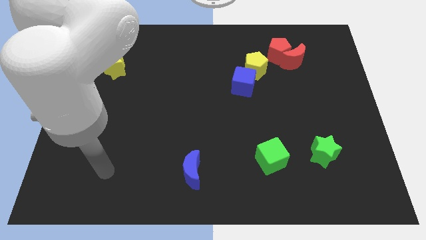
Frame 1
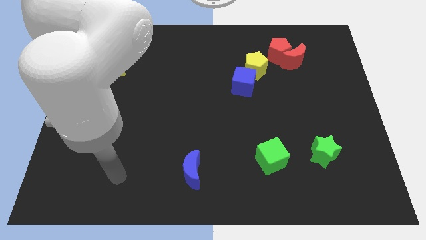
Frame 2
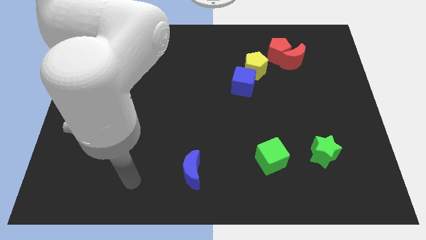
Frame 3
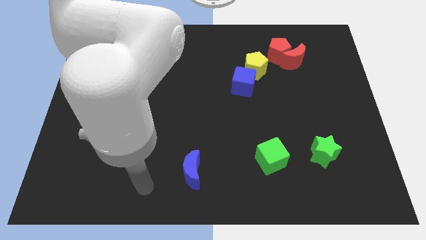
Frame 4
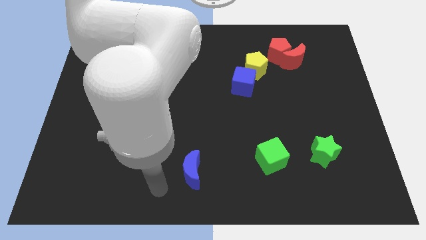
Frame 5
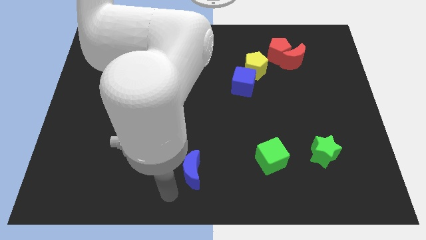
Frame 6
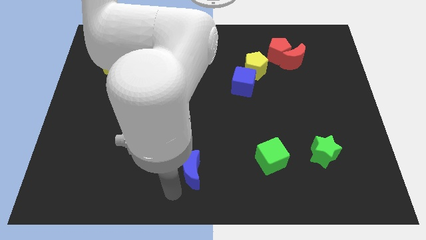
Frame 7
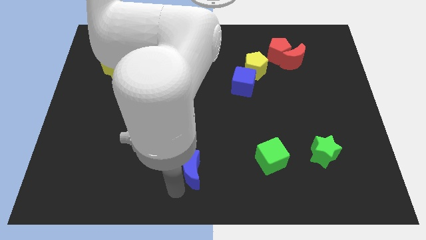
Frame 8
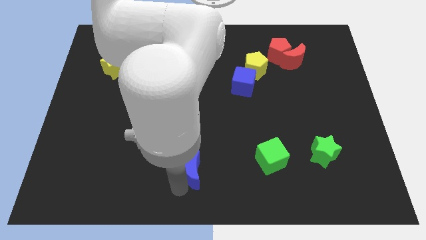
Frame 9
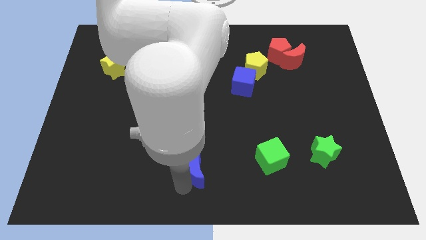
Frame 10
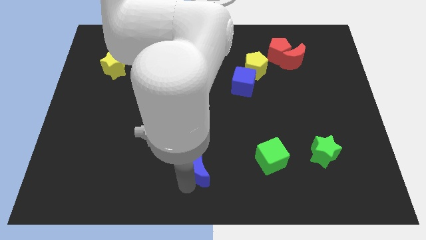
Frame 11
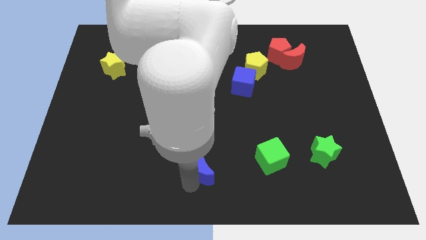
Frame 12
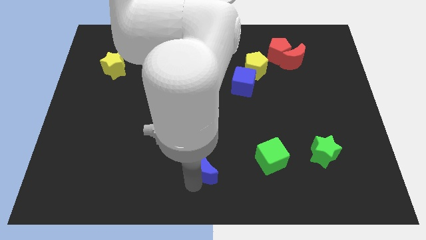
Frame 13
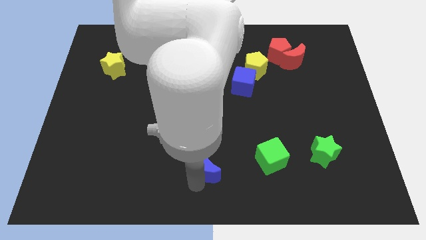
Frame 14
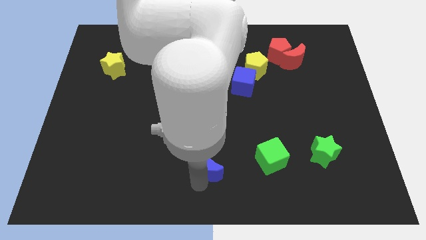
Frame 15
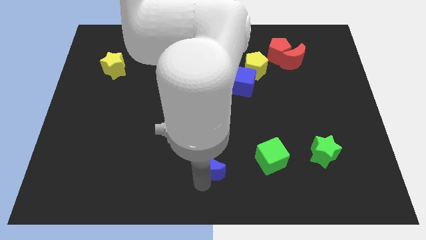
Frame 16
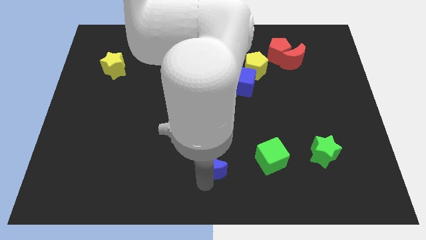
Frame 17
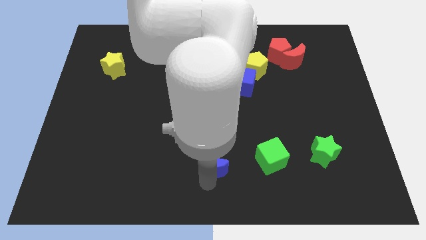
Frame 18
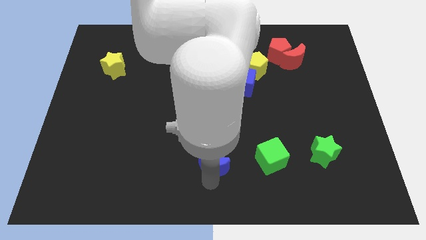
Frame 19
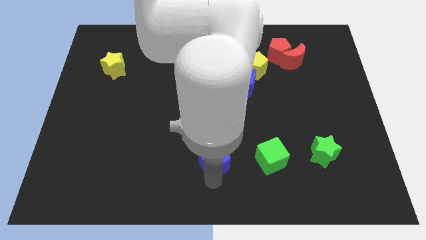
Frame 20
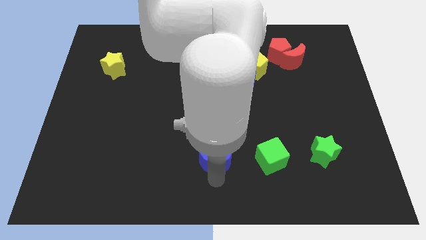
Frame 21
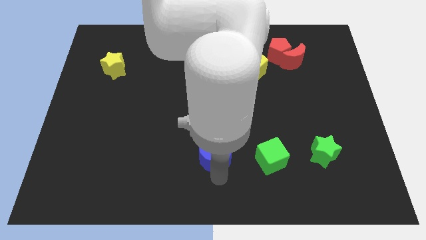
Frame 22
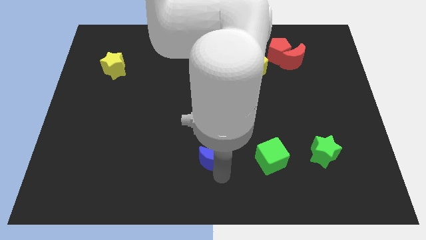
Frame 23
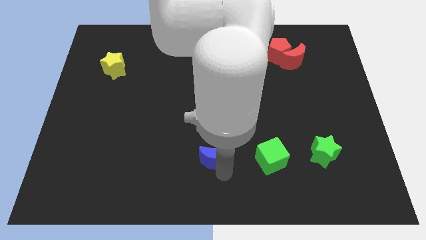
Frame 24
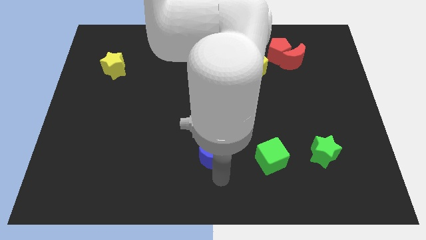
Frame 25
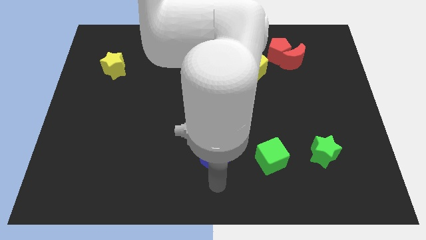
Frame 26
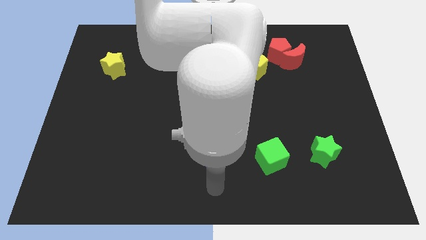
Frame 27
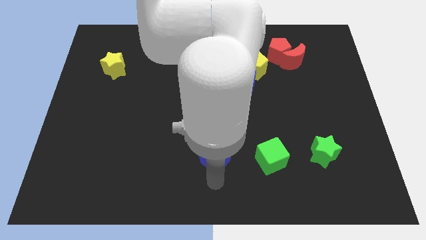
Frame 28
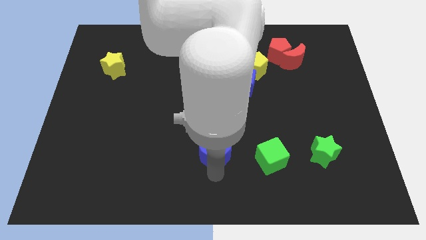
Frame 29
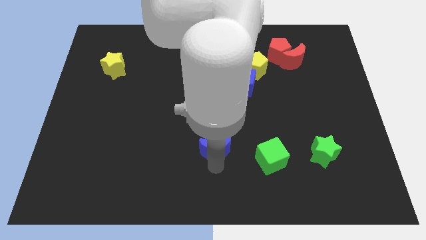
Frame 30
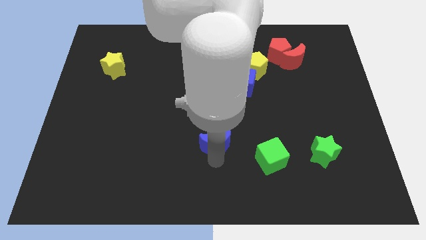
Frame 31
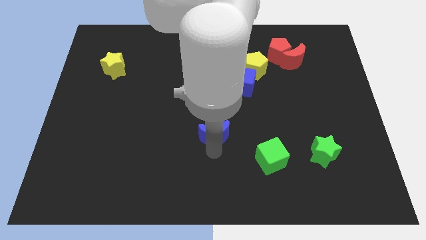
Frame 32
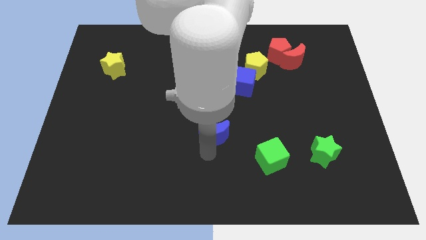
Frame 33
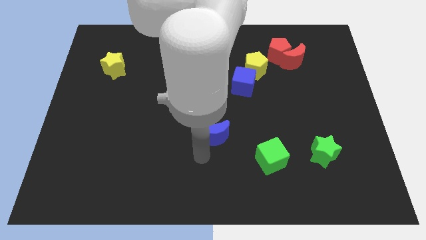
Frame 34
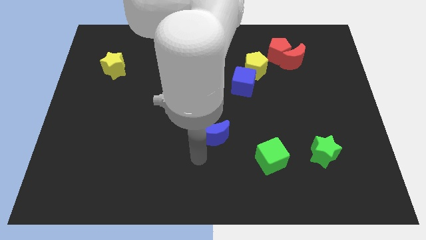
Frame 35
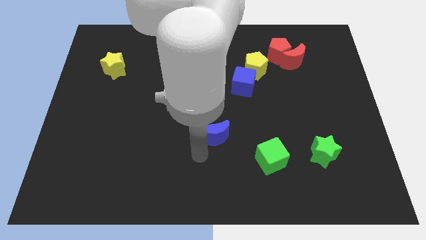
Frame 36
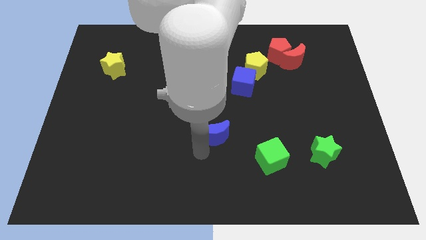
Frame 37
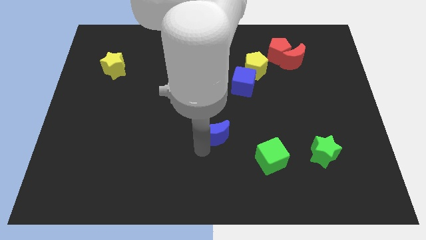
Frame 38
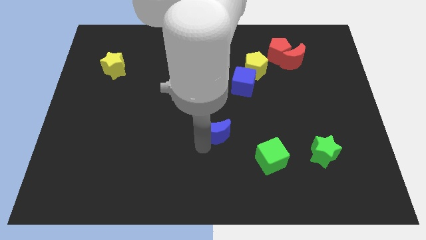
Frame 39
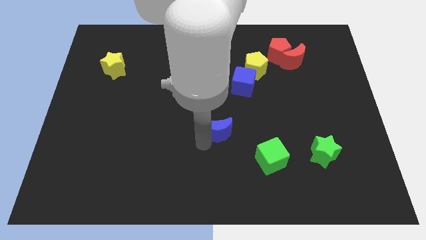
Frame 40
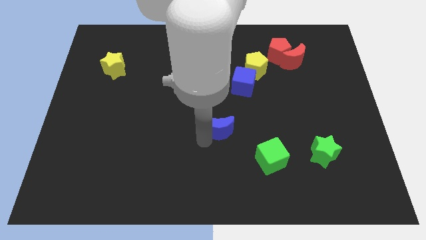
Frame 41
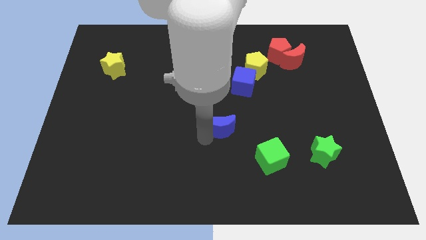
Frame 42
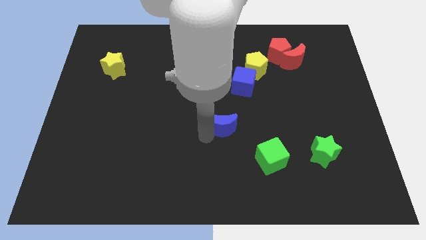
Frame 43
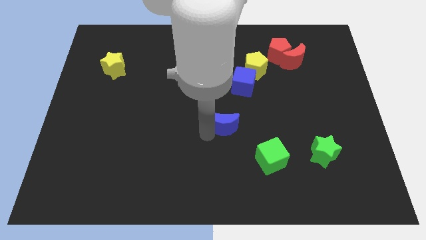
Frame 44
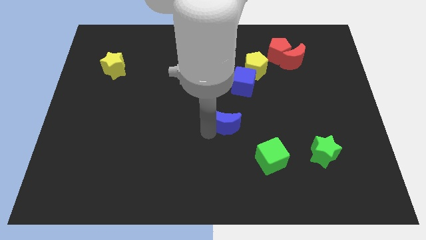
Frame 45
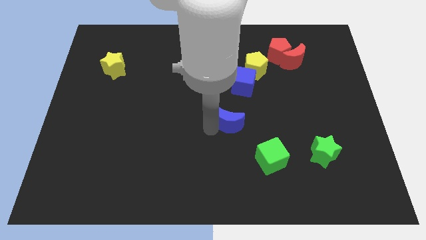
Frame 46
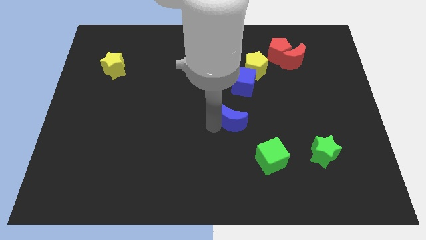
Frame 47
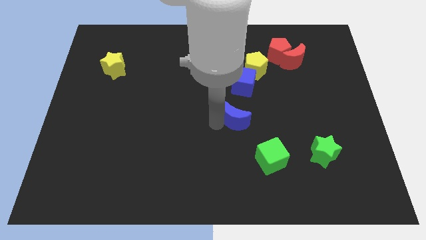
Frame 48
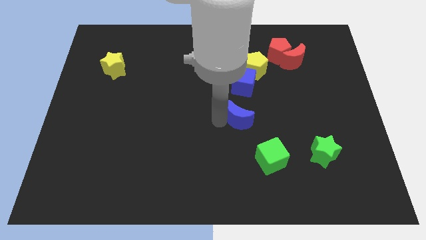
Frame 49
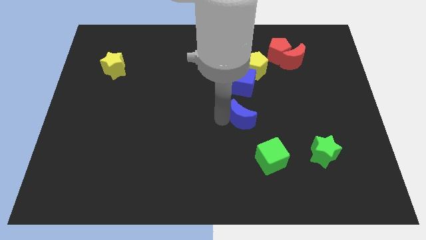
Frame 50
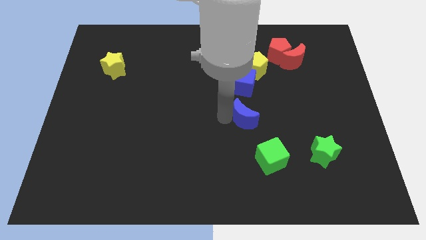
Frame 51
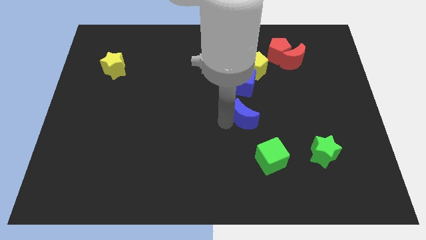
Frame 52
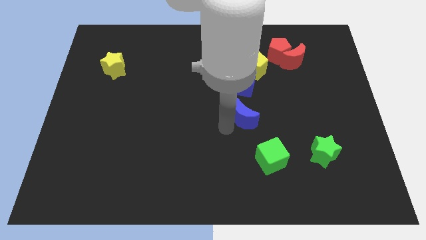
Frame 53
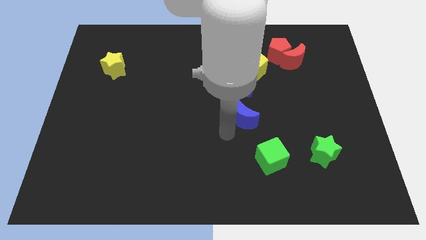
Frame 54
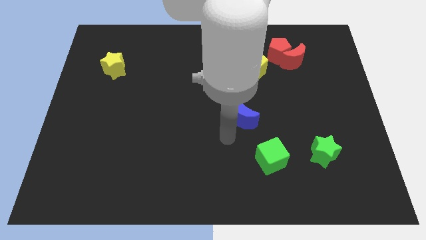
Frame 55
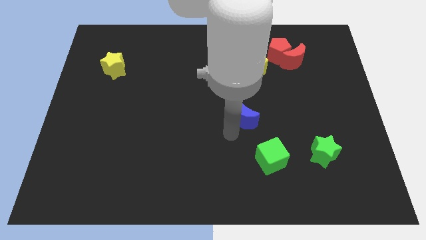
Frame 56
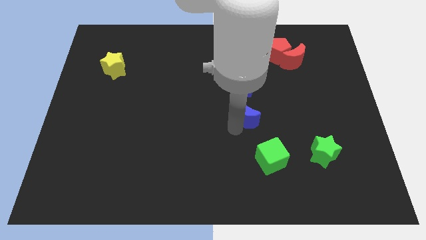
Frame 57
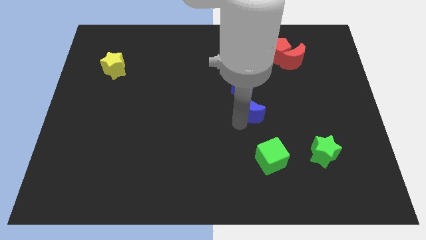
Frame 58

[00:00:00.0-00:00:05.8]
push the blue moon to the bottom of the yellow pentagon

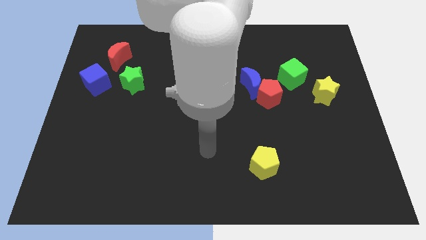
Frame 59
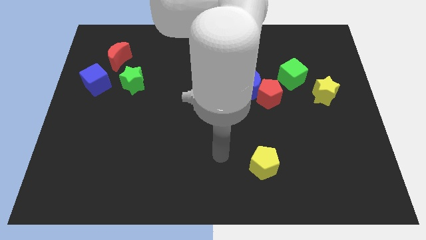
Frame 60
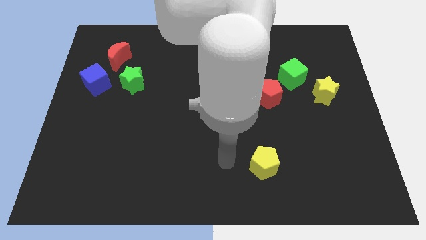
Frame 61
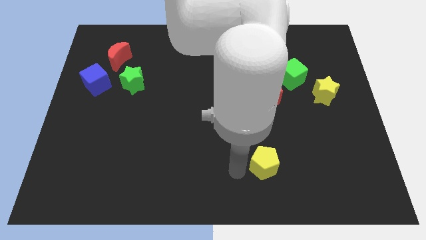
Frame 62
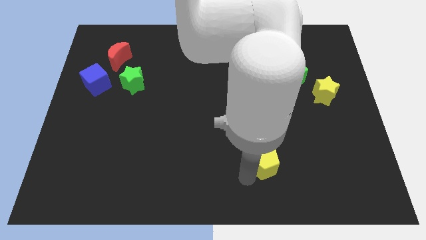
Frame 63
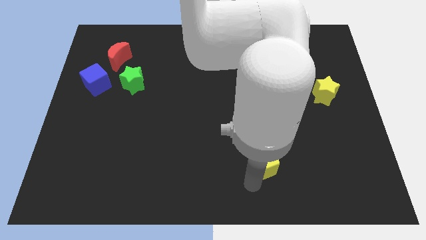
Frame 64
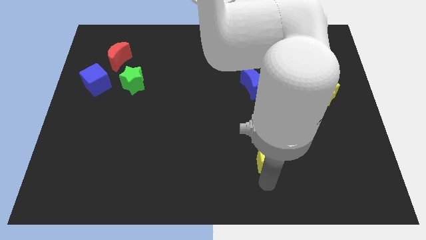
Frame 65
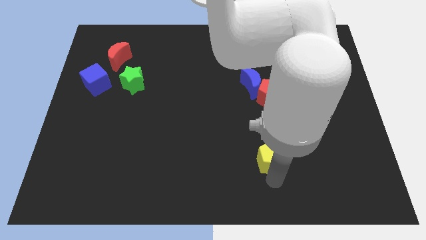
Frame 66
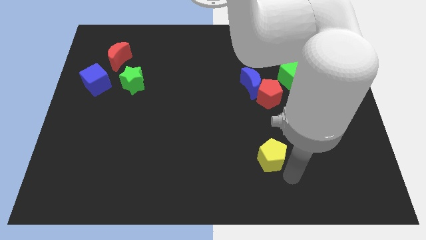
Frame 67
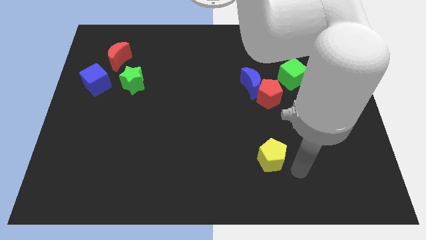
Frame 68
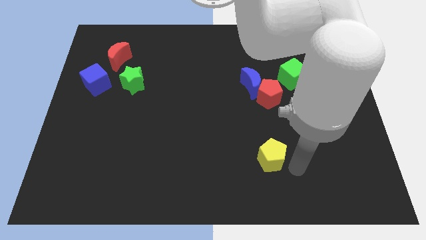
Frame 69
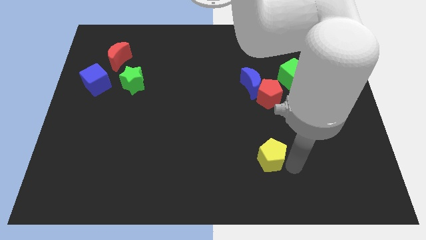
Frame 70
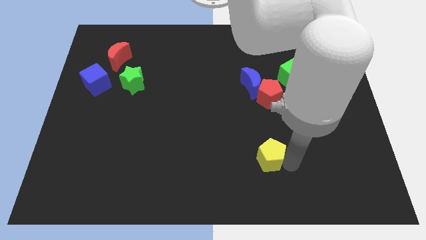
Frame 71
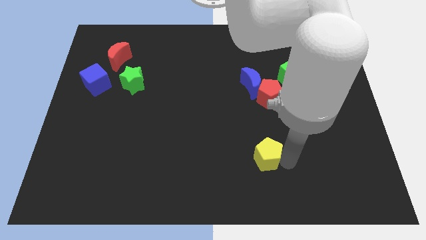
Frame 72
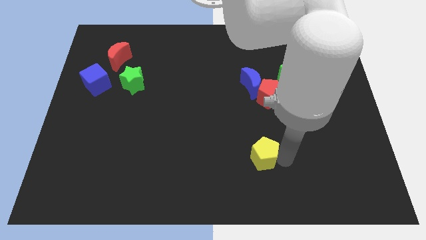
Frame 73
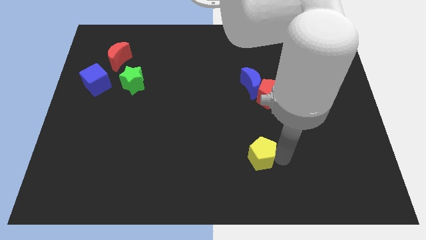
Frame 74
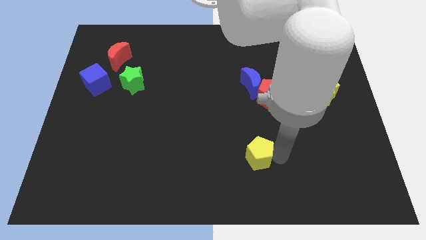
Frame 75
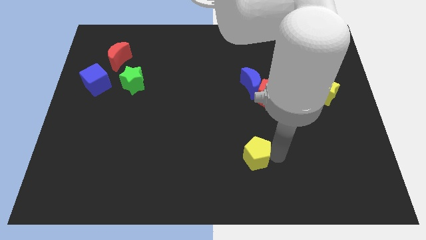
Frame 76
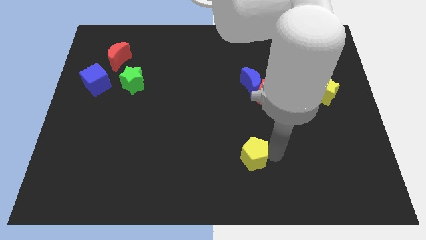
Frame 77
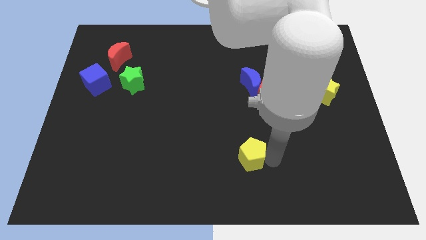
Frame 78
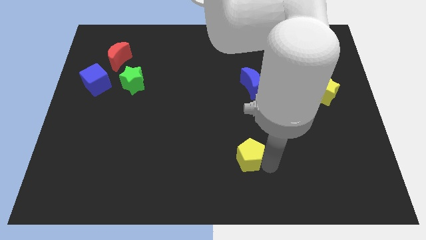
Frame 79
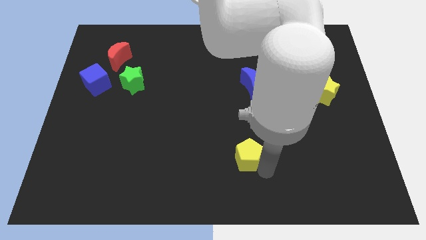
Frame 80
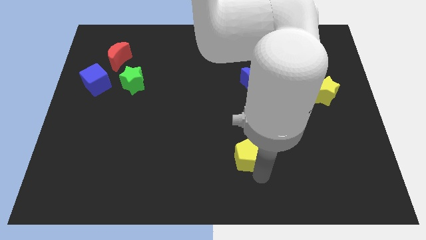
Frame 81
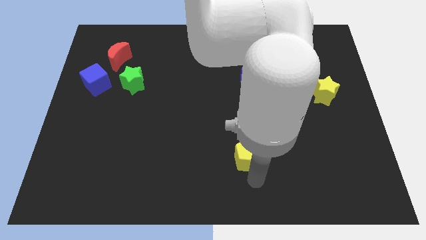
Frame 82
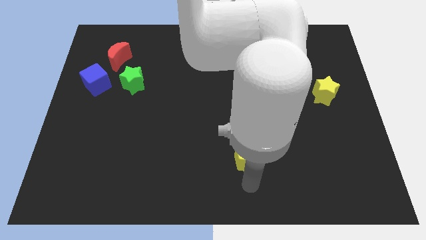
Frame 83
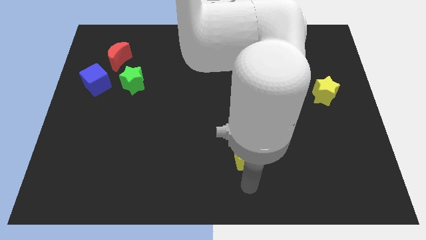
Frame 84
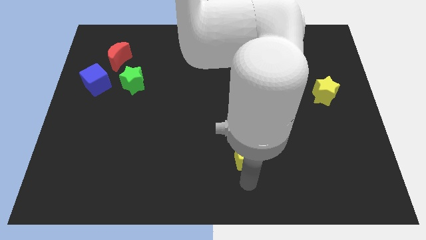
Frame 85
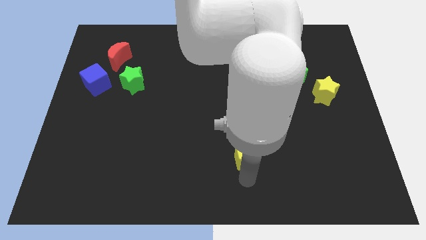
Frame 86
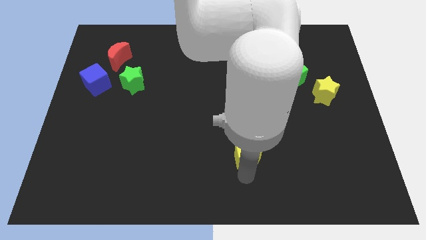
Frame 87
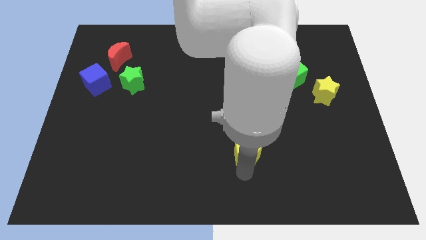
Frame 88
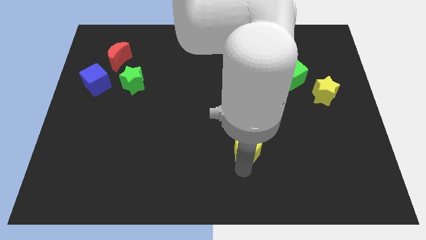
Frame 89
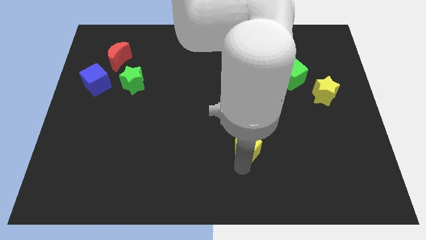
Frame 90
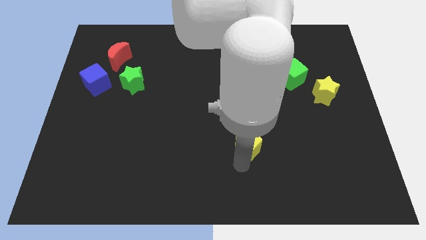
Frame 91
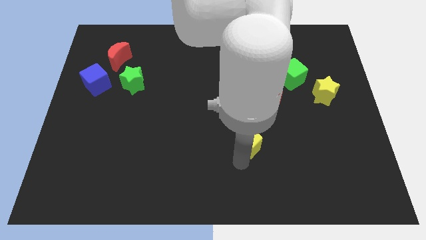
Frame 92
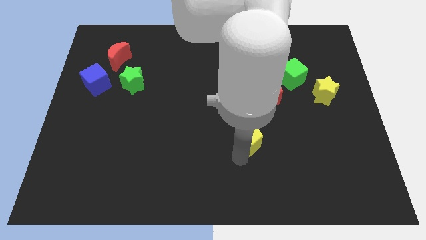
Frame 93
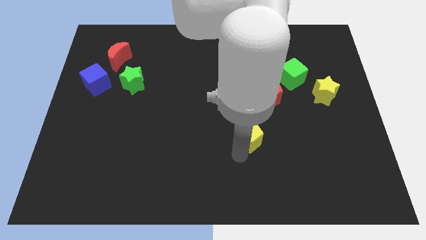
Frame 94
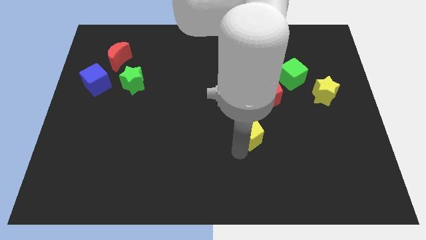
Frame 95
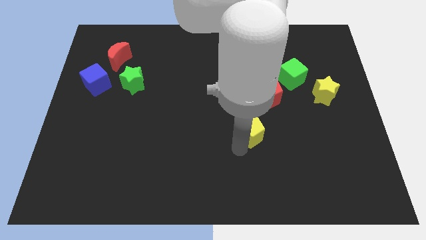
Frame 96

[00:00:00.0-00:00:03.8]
push the yellow pentagon to the bottom left of the red pentagon
